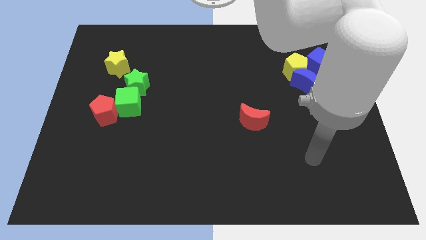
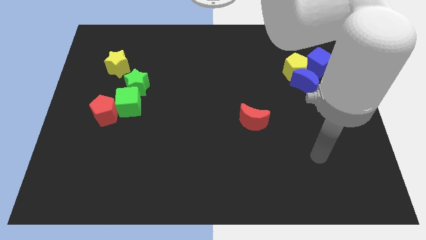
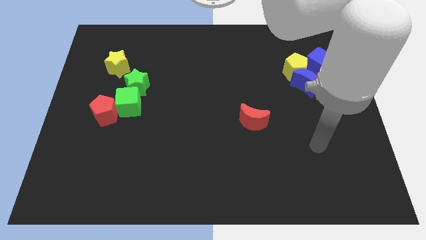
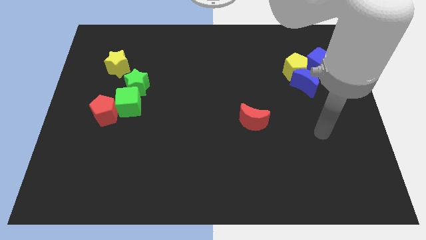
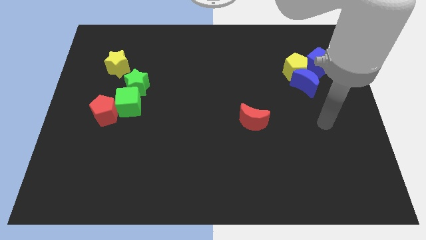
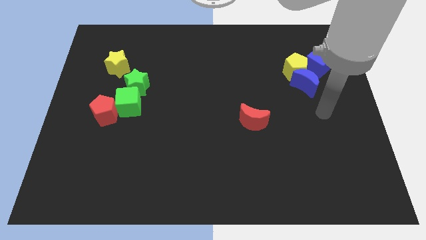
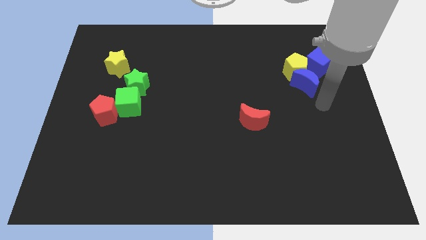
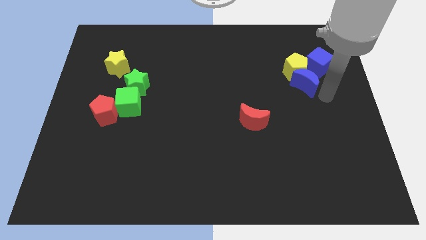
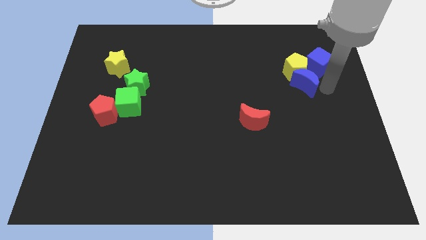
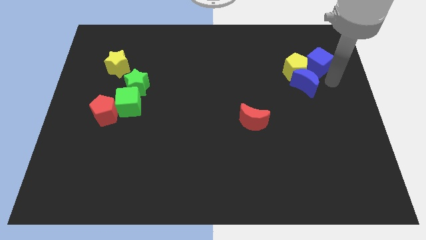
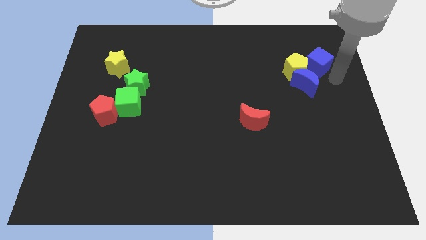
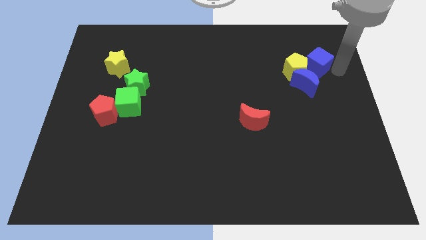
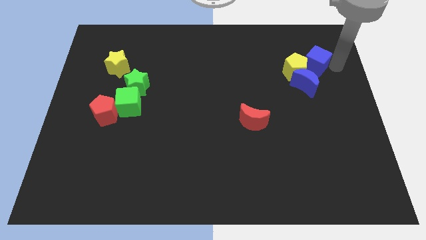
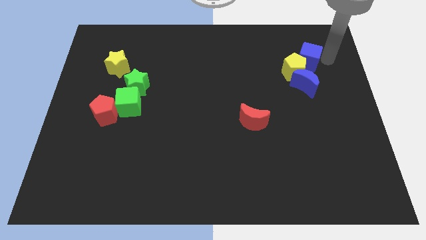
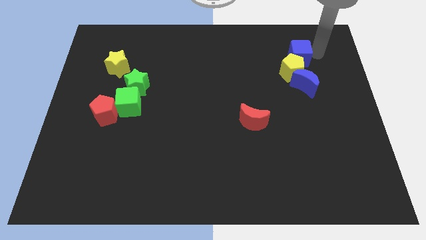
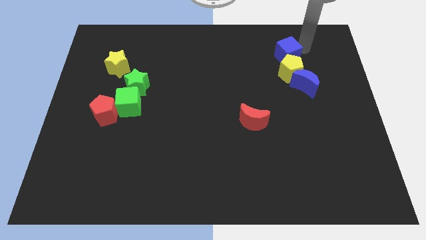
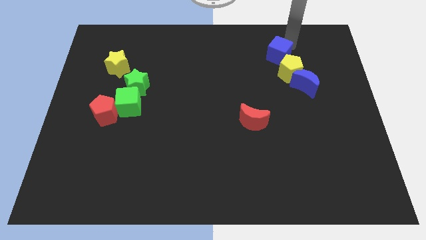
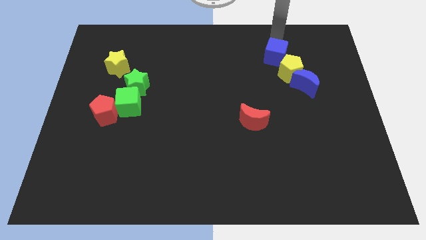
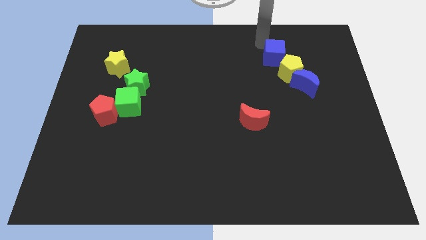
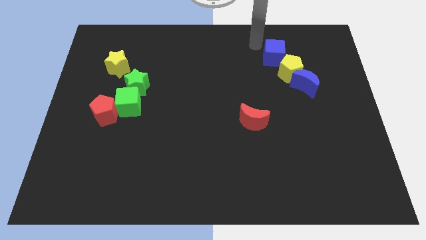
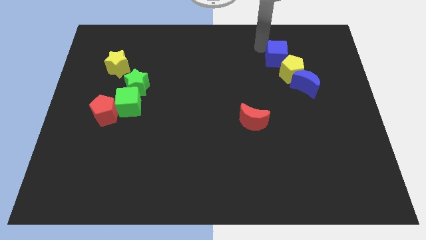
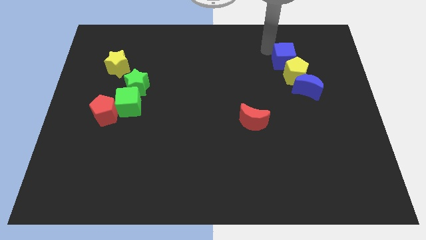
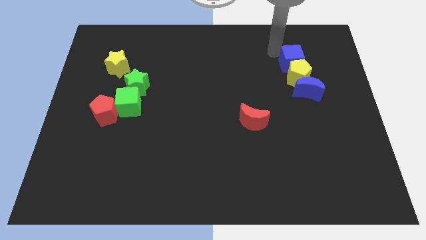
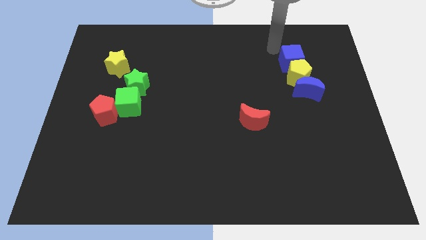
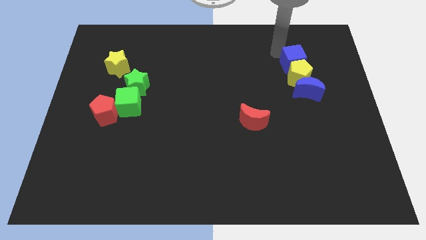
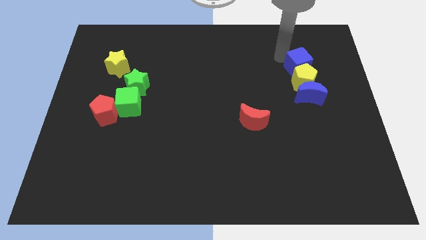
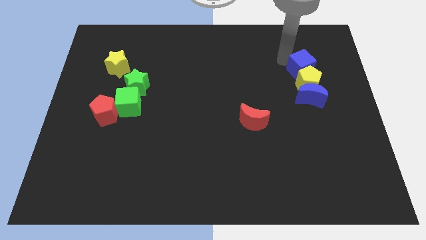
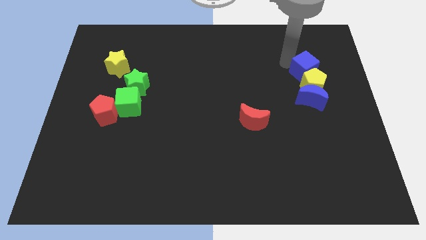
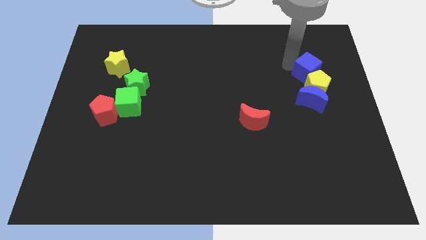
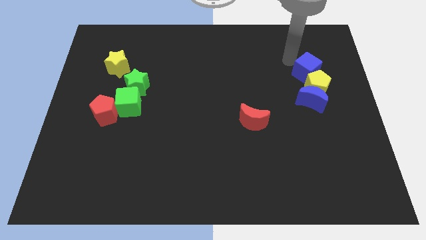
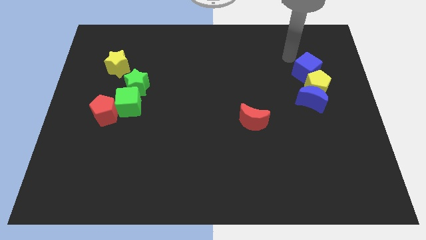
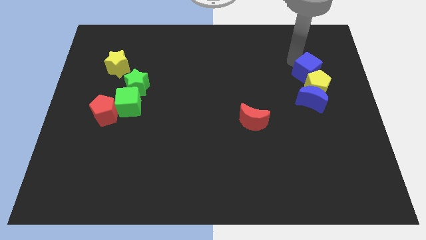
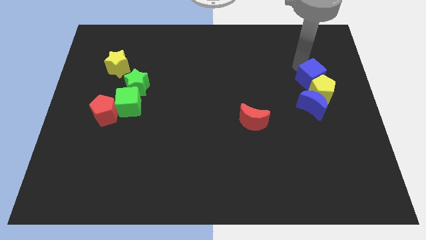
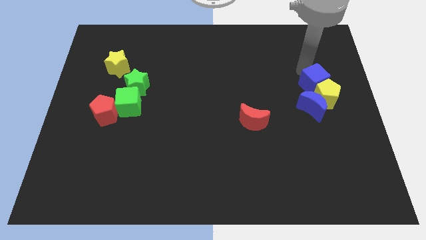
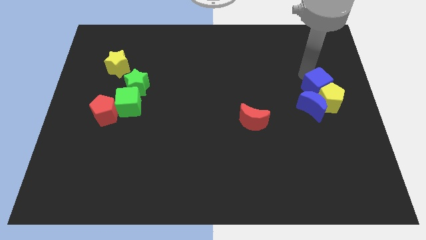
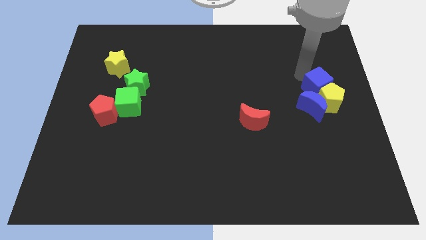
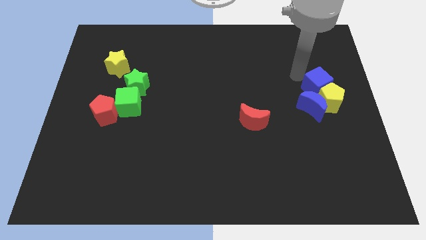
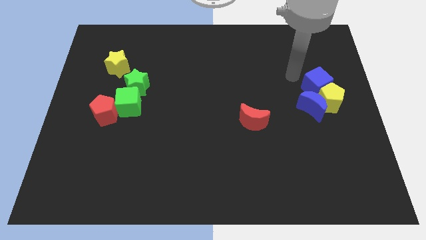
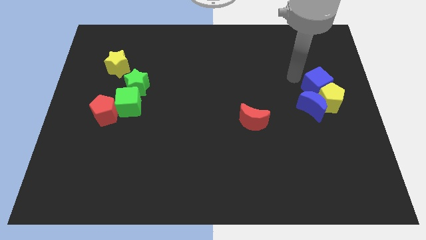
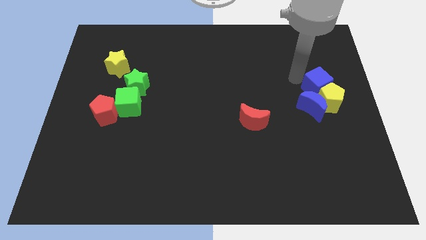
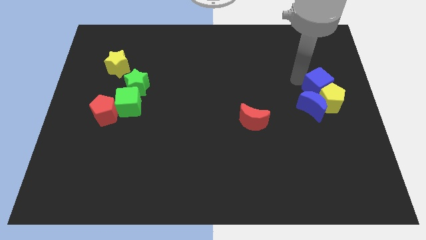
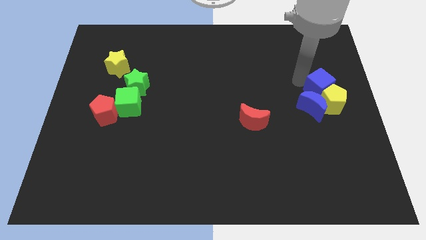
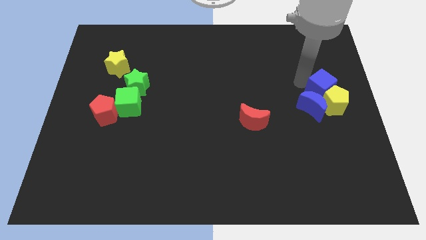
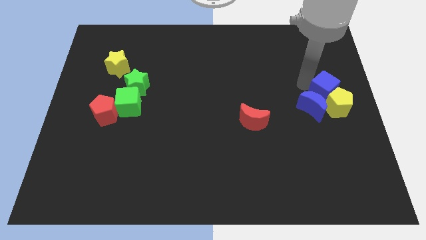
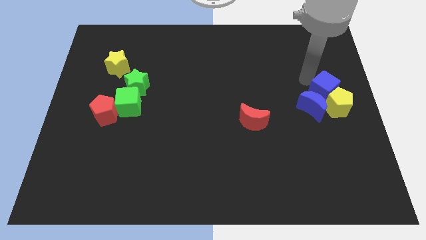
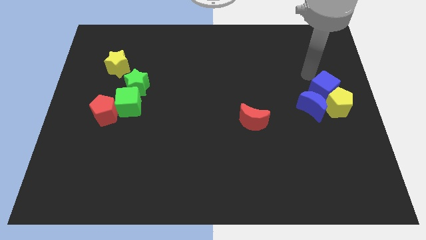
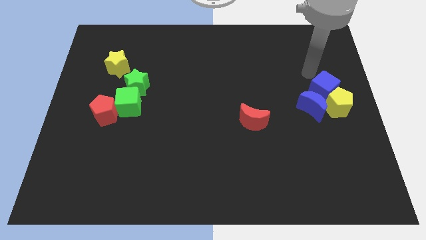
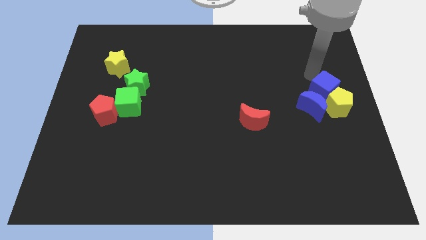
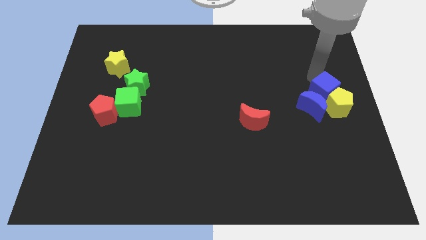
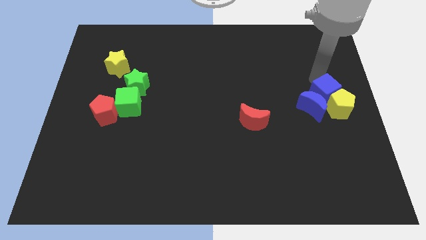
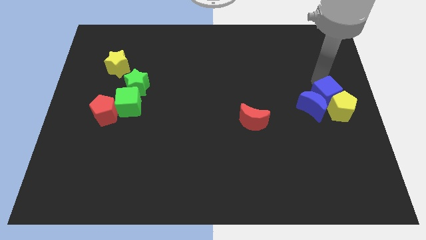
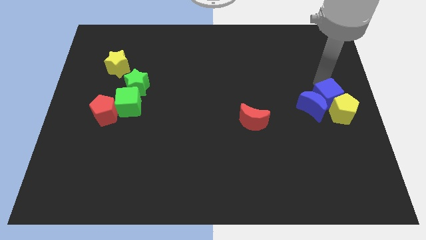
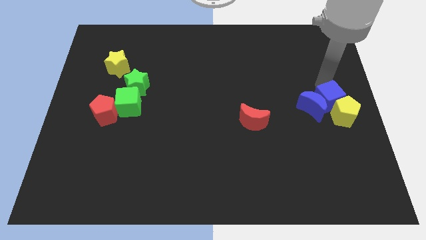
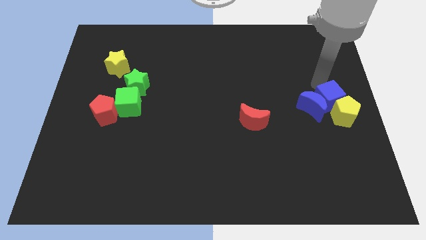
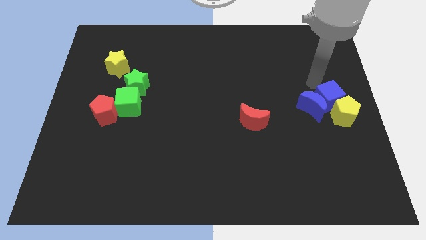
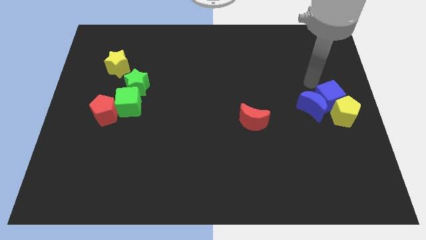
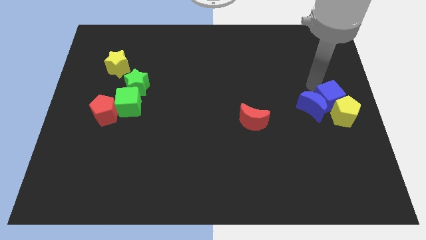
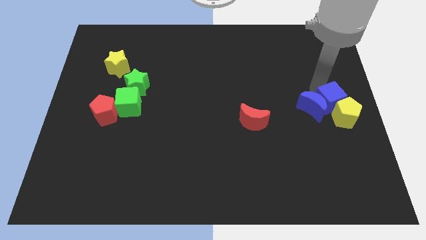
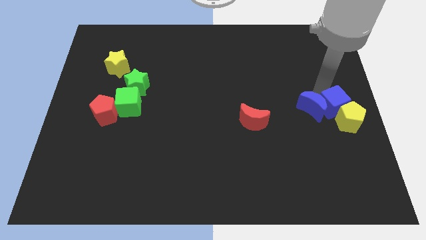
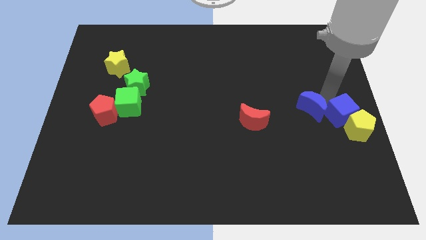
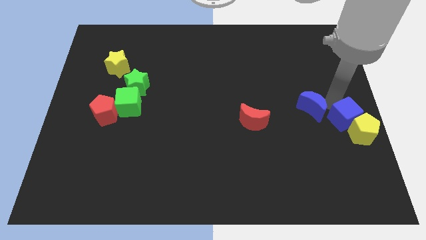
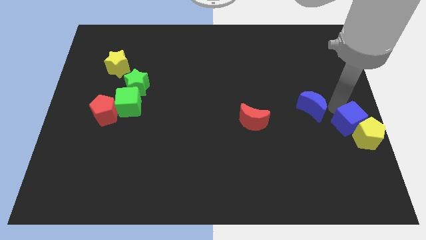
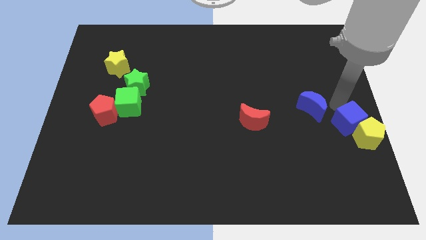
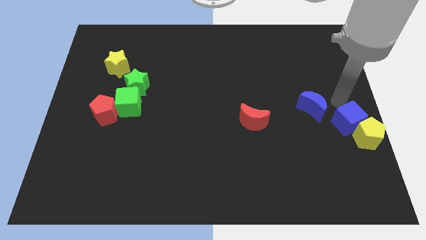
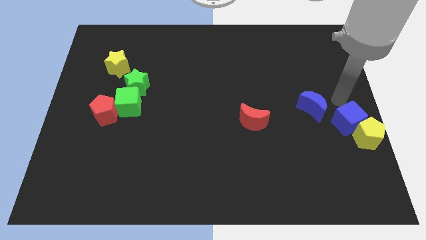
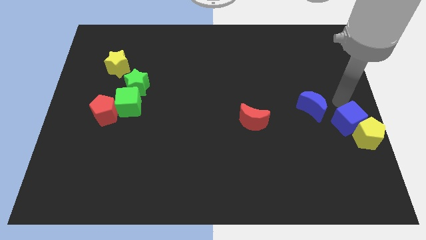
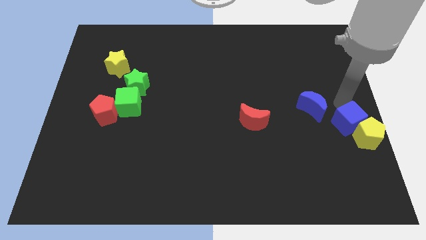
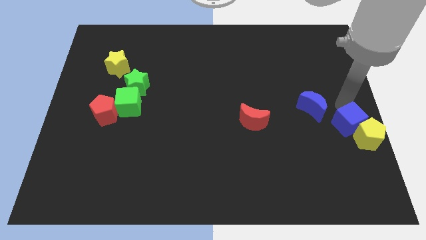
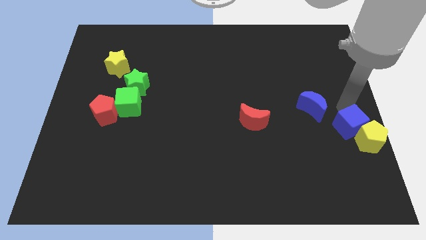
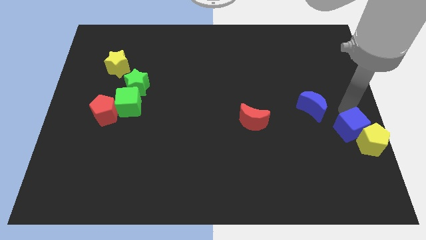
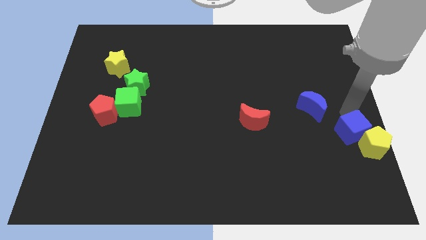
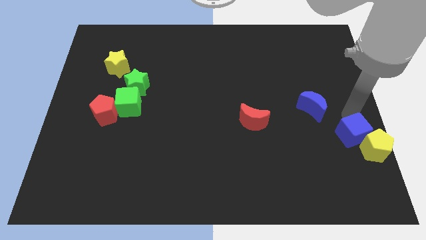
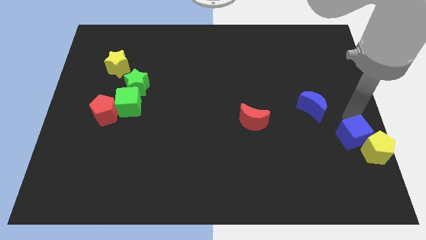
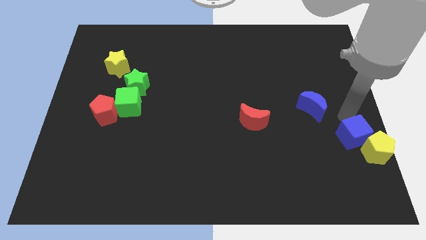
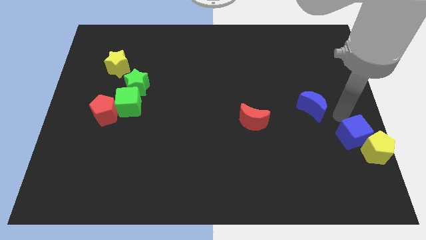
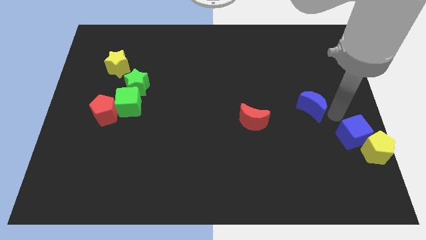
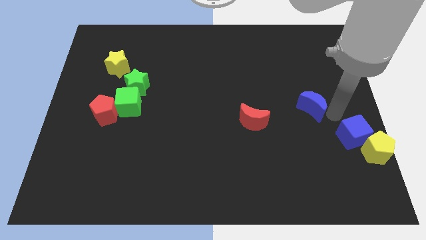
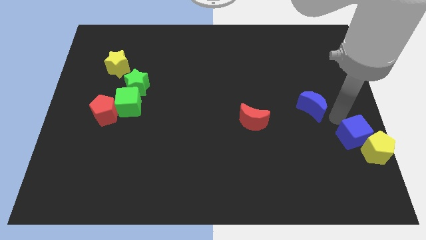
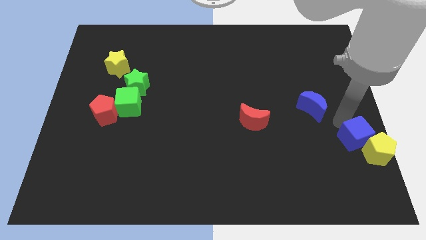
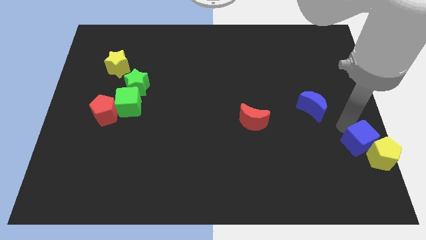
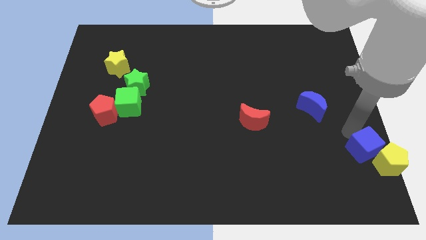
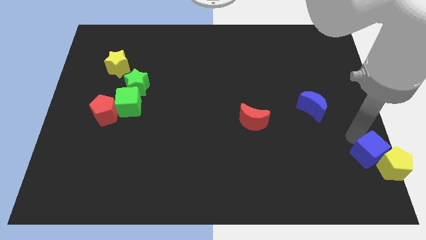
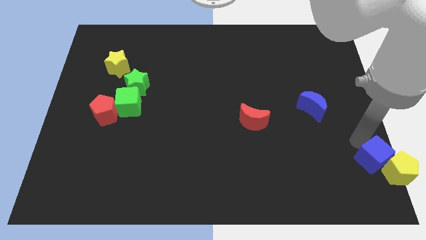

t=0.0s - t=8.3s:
push the blue cube to the bottom right of the board
